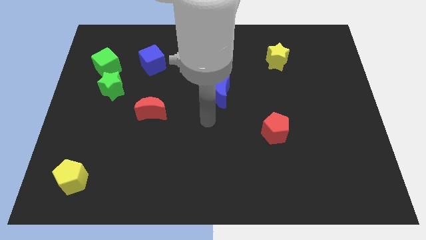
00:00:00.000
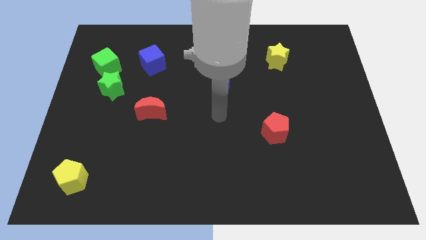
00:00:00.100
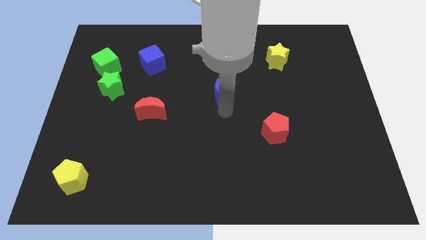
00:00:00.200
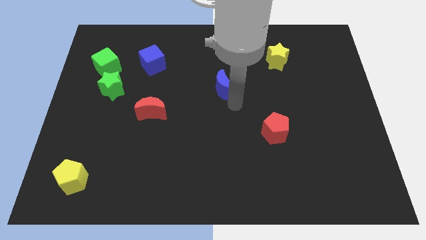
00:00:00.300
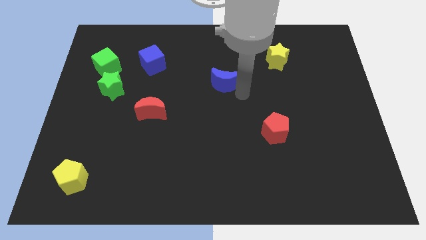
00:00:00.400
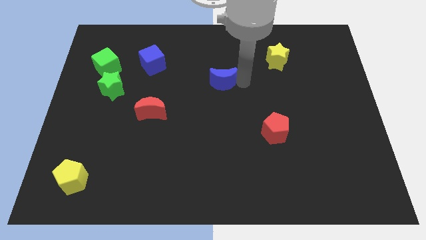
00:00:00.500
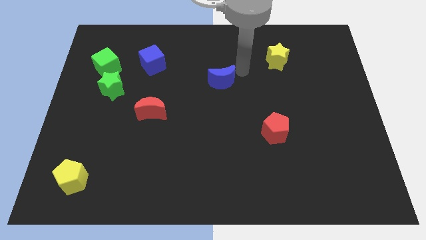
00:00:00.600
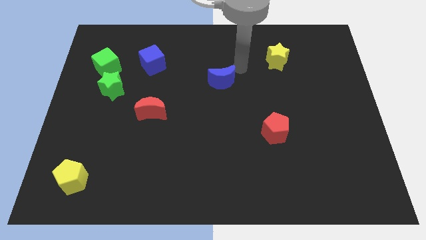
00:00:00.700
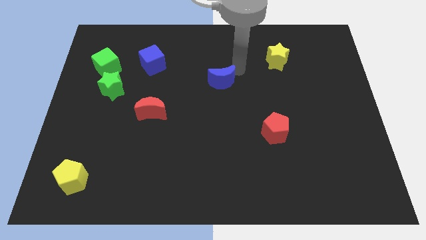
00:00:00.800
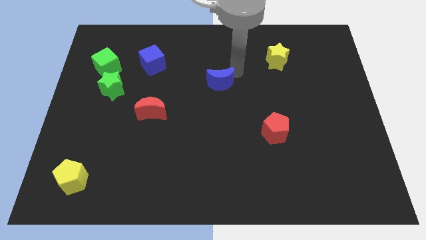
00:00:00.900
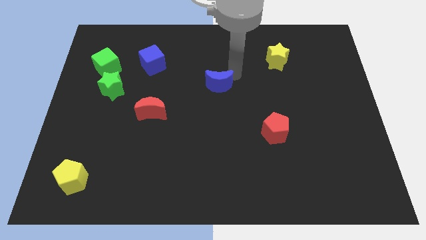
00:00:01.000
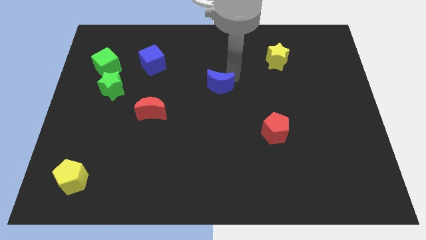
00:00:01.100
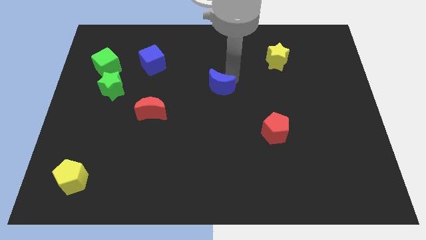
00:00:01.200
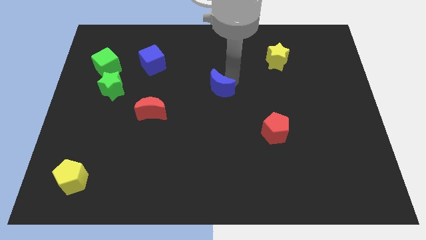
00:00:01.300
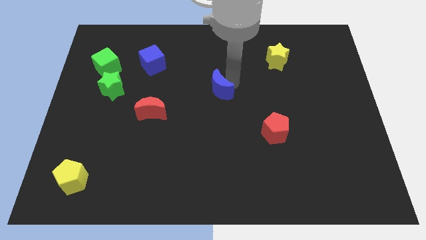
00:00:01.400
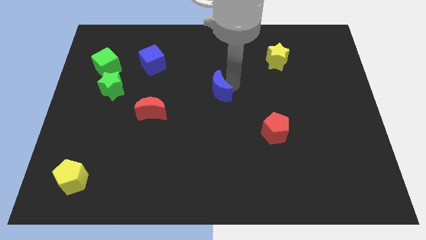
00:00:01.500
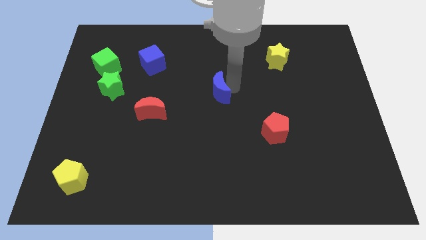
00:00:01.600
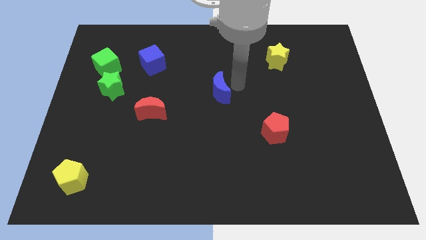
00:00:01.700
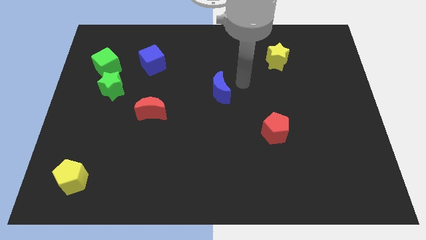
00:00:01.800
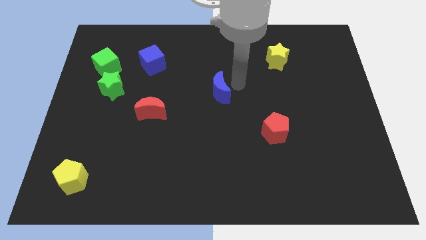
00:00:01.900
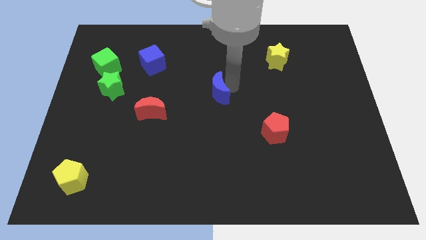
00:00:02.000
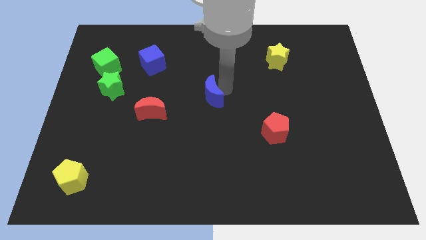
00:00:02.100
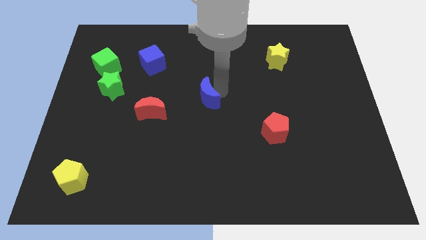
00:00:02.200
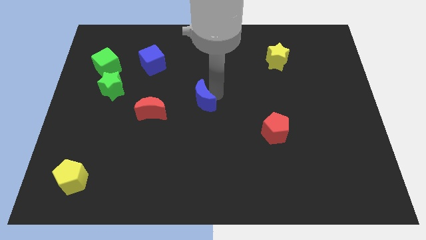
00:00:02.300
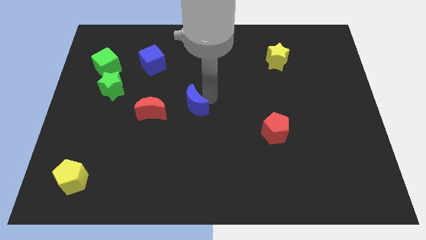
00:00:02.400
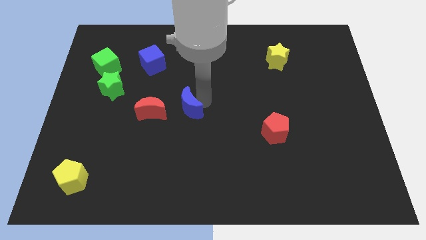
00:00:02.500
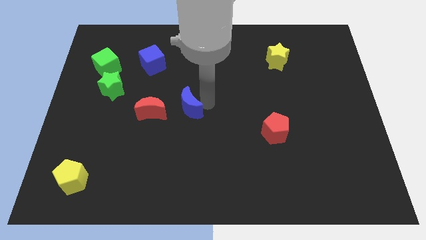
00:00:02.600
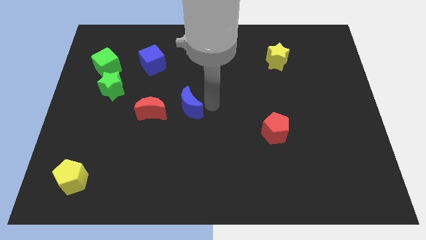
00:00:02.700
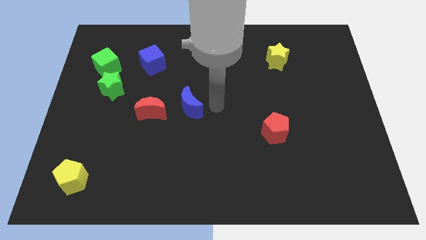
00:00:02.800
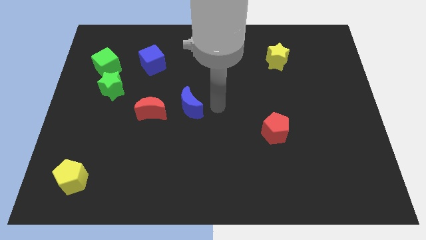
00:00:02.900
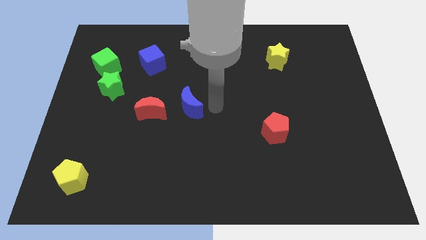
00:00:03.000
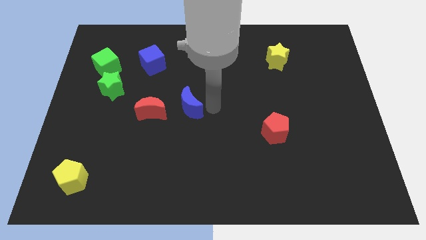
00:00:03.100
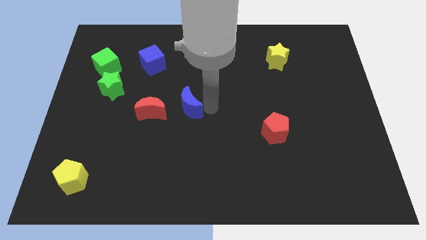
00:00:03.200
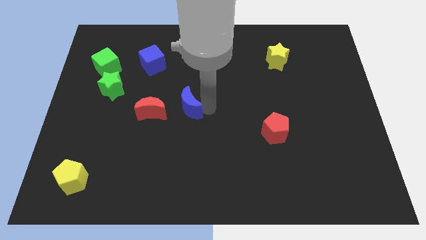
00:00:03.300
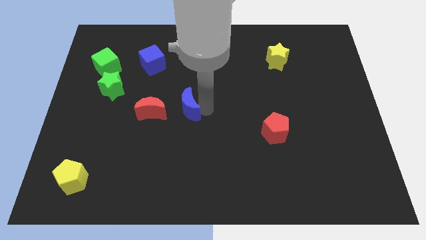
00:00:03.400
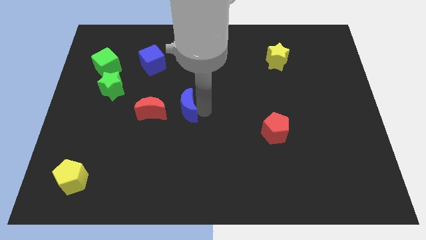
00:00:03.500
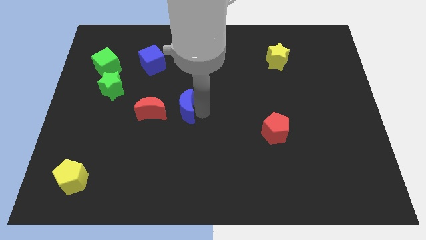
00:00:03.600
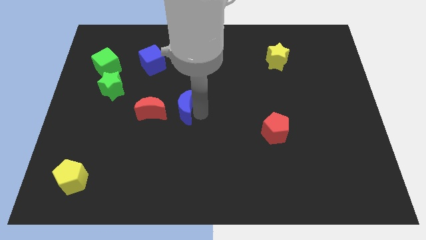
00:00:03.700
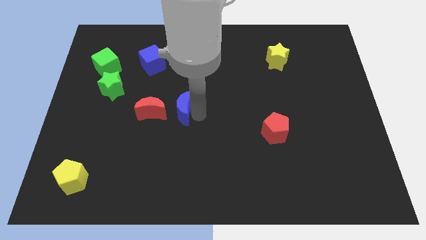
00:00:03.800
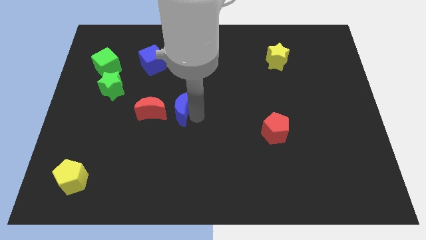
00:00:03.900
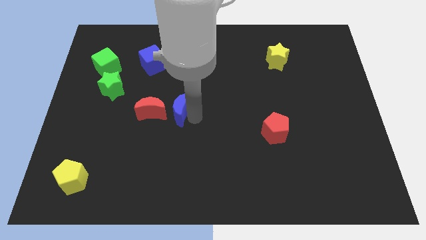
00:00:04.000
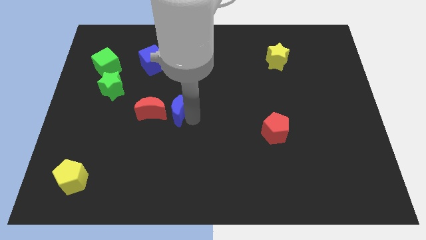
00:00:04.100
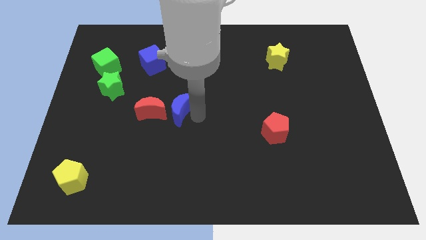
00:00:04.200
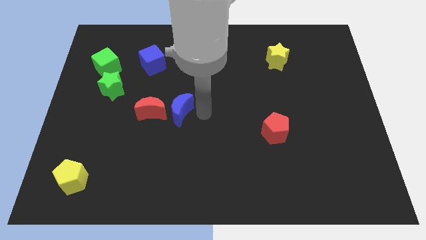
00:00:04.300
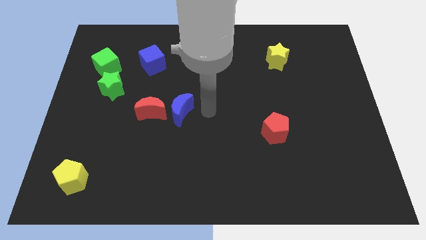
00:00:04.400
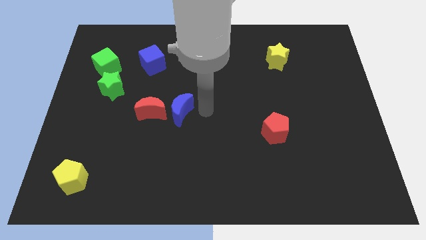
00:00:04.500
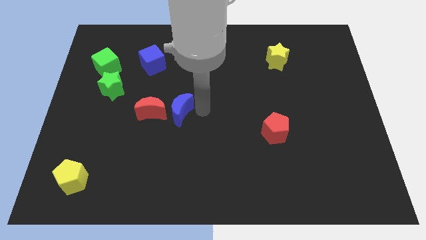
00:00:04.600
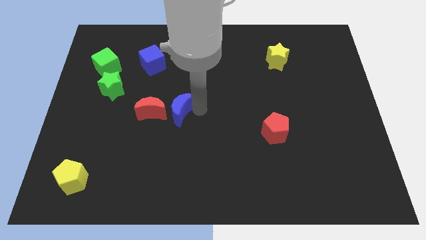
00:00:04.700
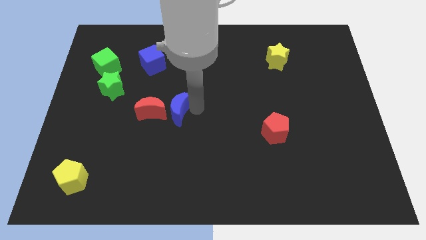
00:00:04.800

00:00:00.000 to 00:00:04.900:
put the blue moon towards the red moon

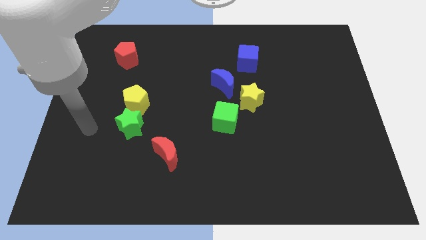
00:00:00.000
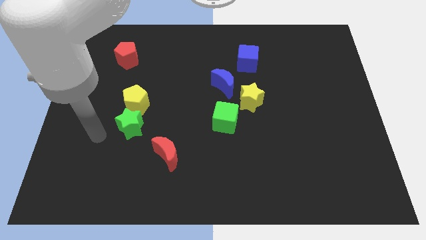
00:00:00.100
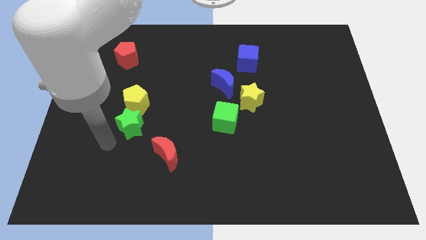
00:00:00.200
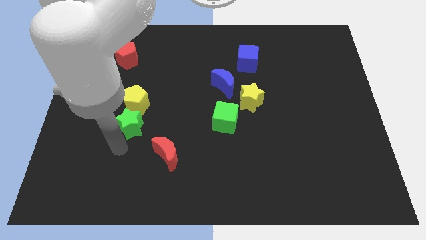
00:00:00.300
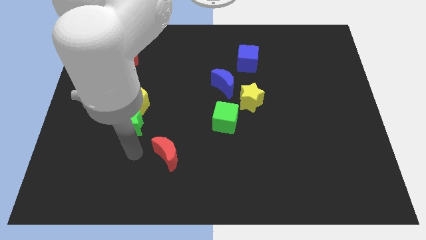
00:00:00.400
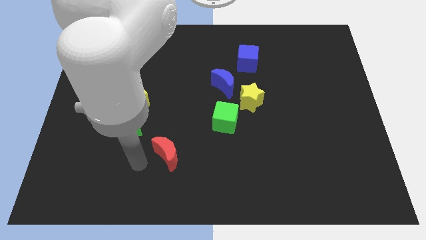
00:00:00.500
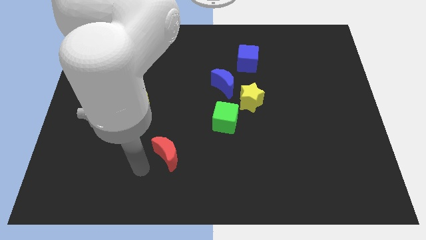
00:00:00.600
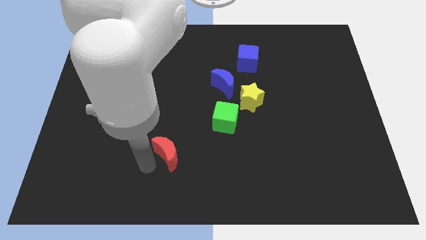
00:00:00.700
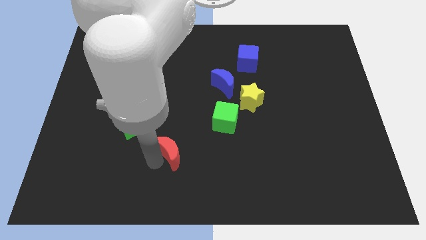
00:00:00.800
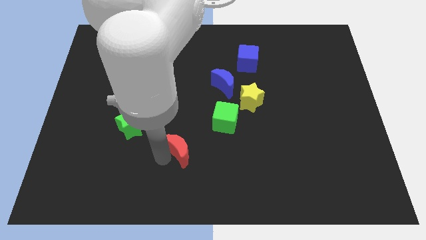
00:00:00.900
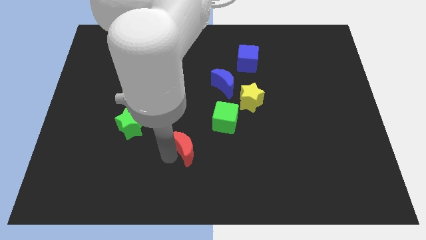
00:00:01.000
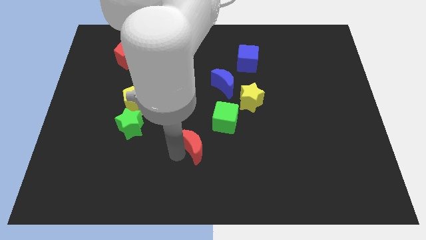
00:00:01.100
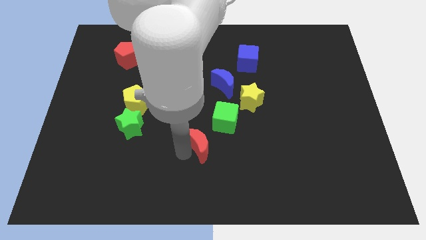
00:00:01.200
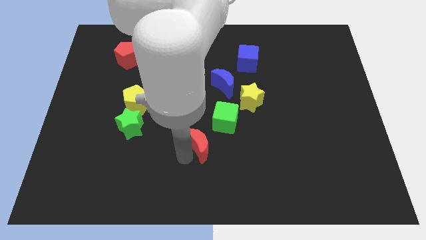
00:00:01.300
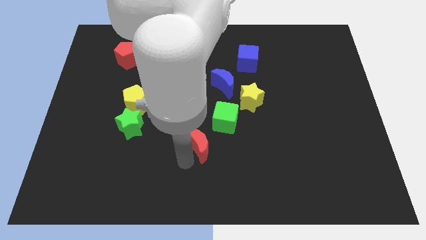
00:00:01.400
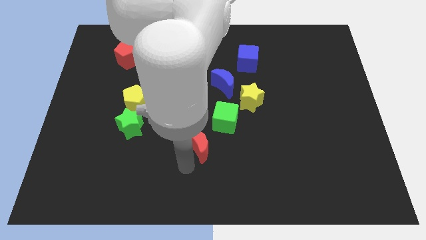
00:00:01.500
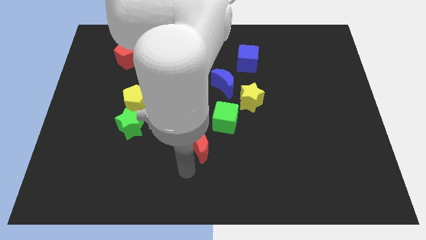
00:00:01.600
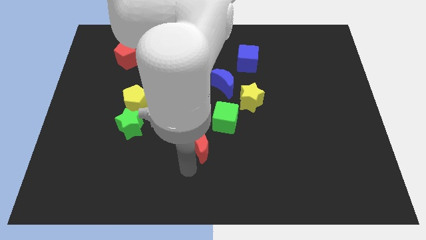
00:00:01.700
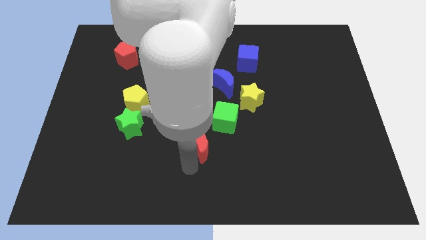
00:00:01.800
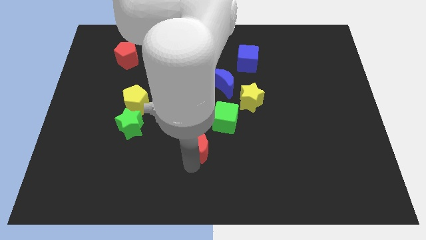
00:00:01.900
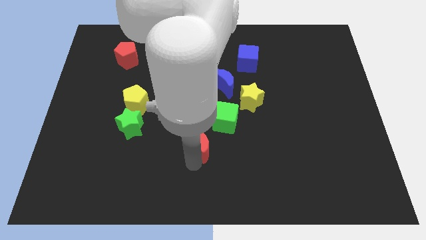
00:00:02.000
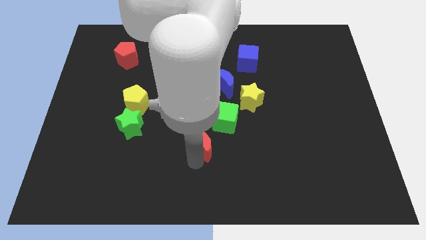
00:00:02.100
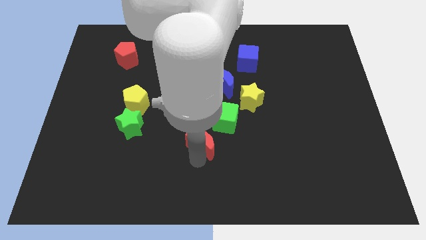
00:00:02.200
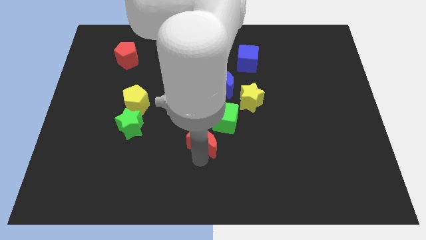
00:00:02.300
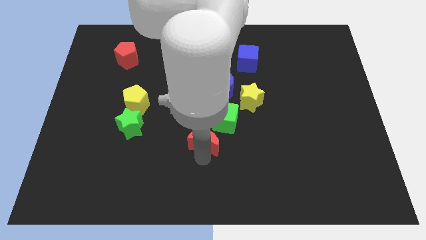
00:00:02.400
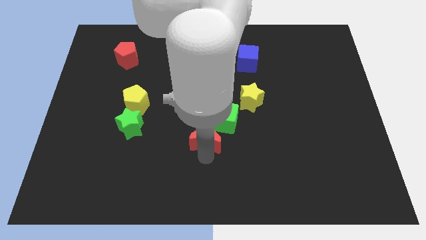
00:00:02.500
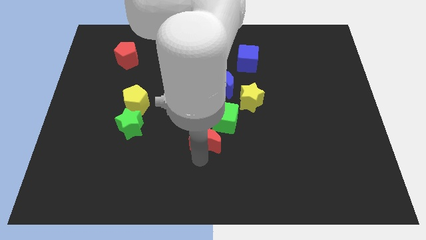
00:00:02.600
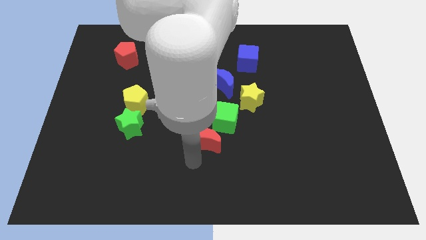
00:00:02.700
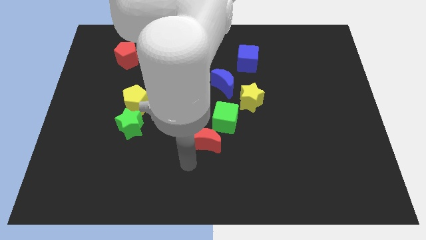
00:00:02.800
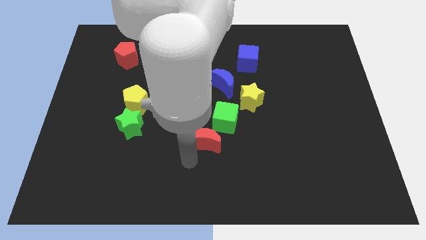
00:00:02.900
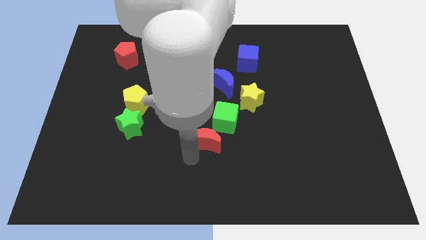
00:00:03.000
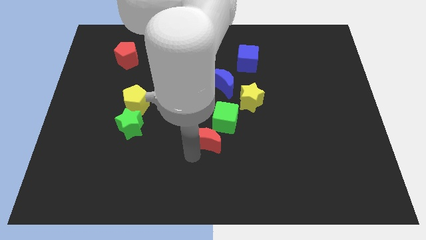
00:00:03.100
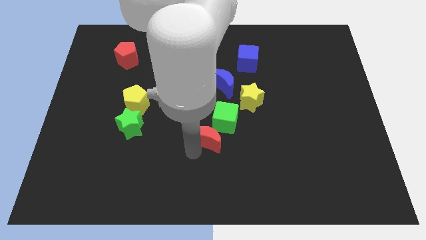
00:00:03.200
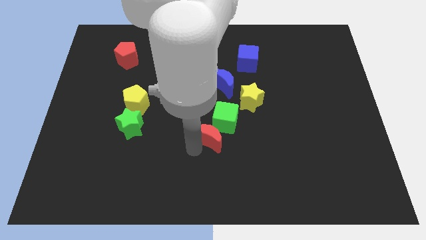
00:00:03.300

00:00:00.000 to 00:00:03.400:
slide the red moon to the green cube

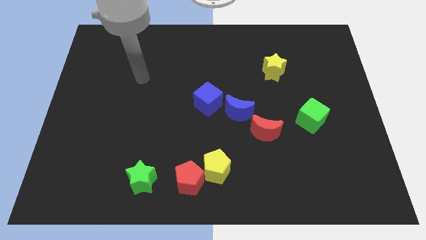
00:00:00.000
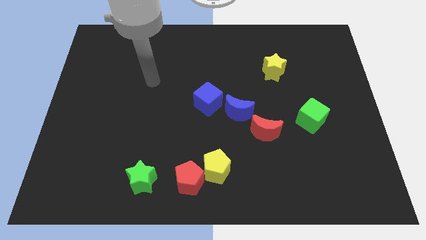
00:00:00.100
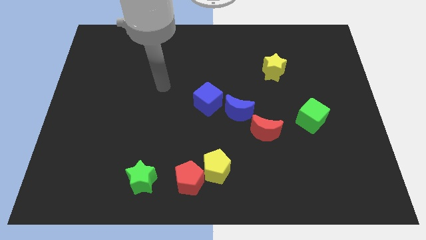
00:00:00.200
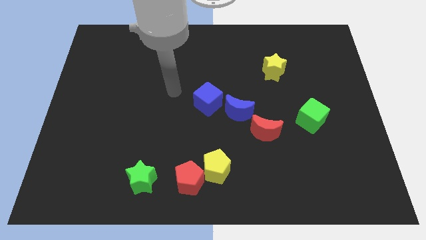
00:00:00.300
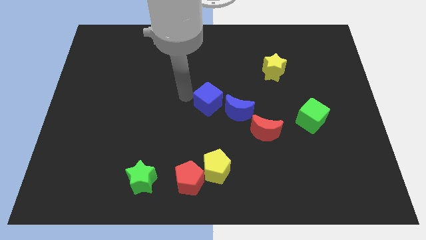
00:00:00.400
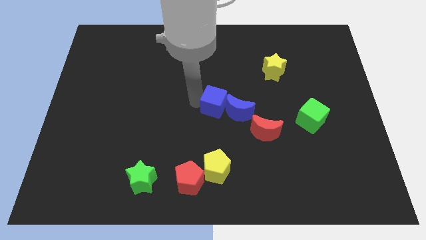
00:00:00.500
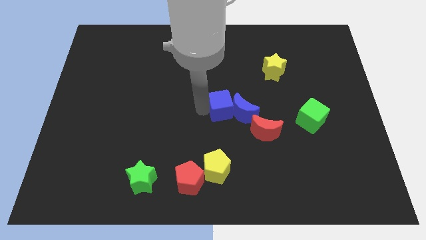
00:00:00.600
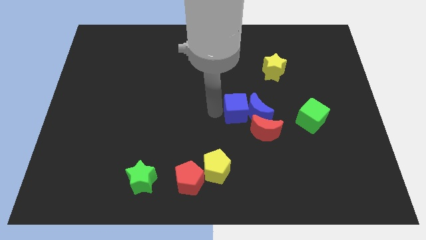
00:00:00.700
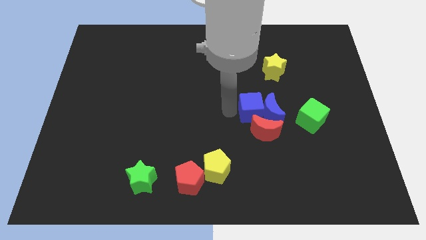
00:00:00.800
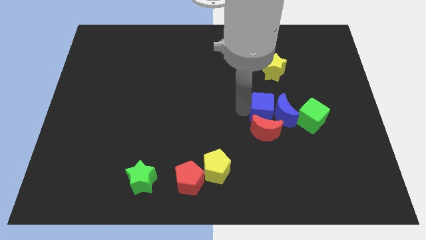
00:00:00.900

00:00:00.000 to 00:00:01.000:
push the blue moon towards the green cube
